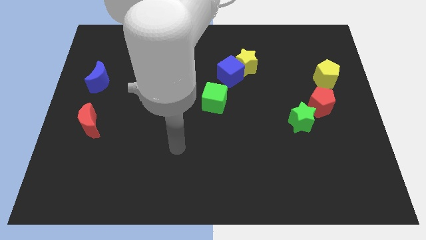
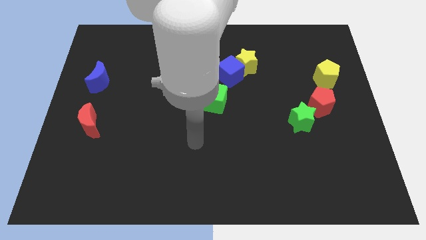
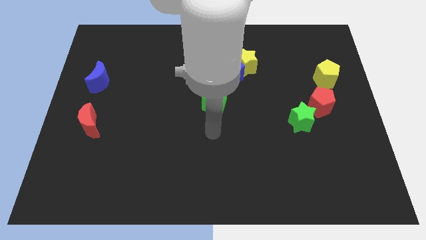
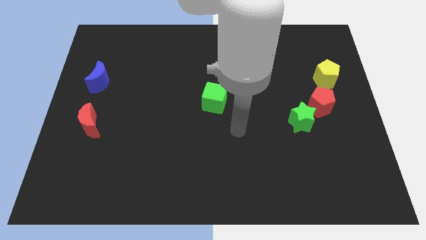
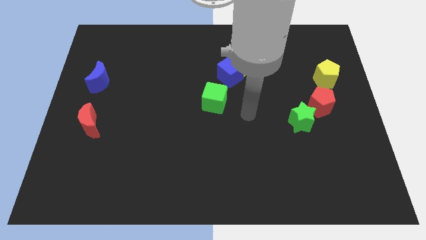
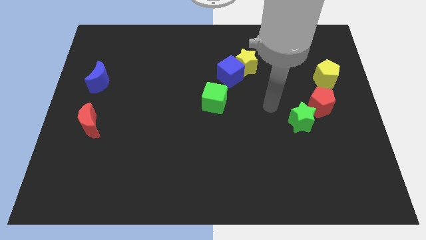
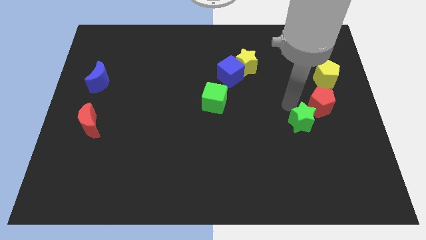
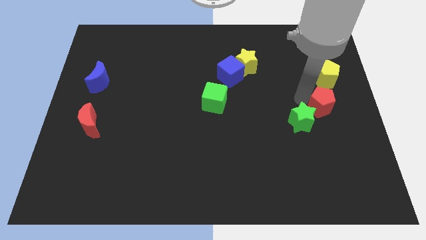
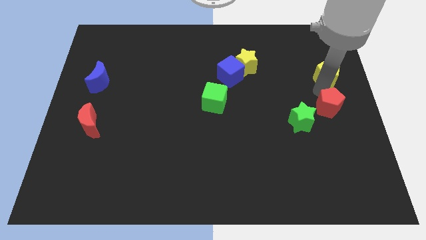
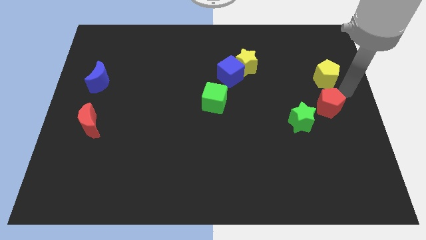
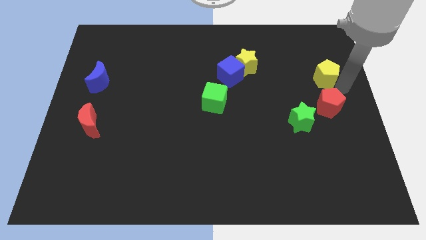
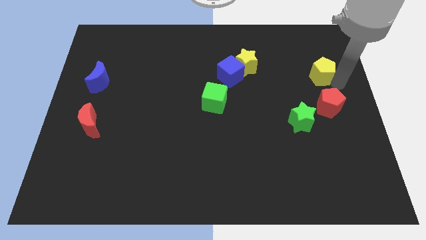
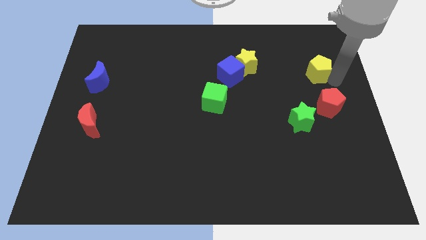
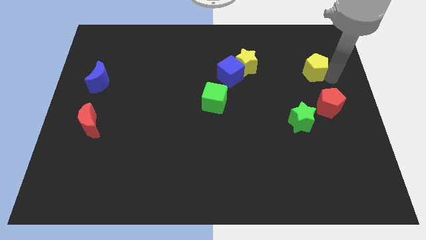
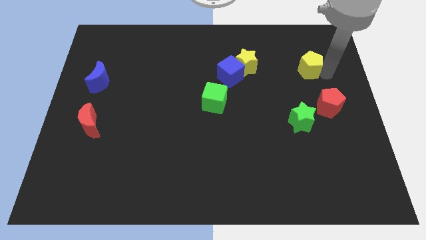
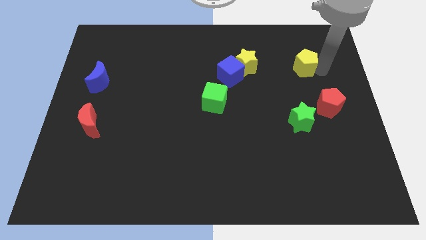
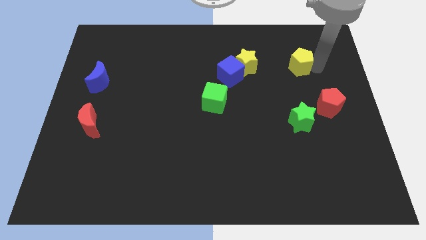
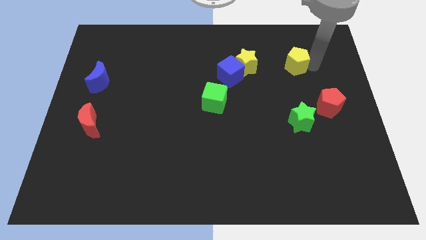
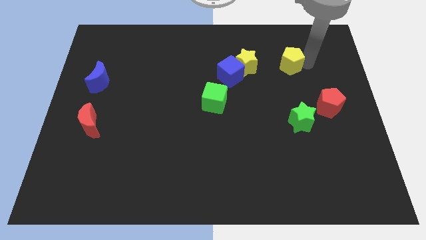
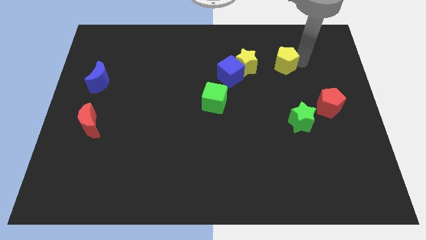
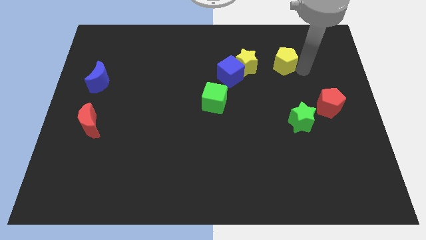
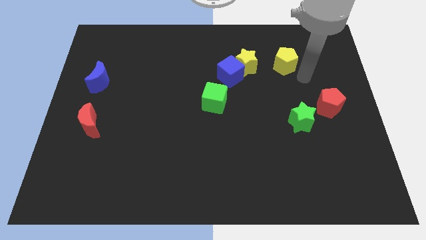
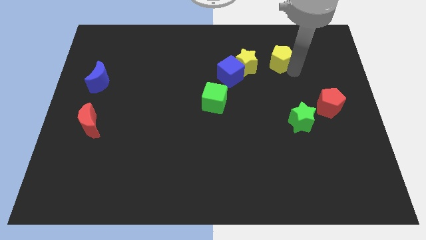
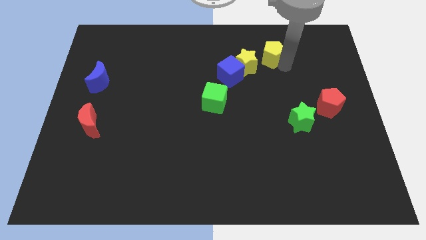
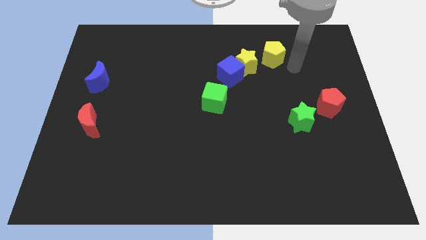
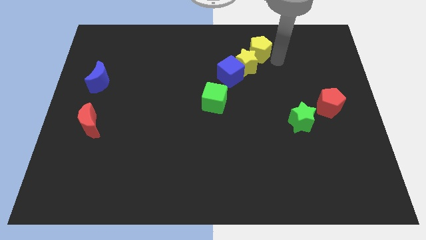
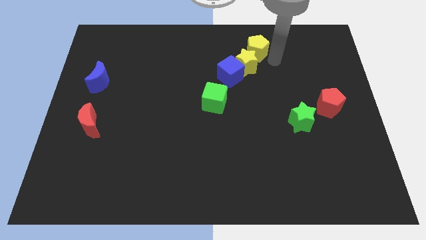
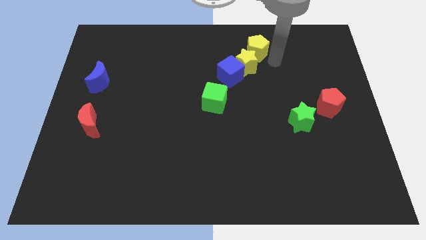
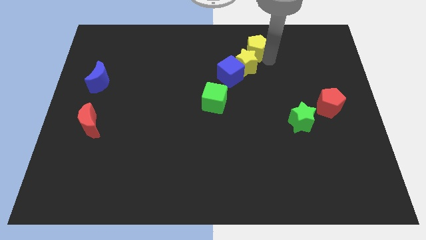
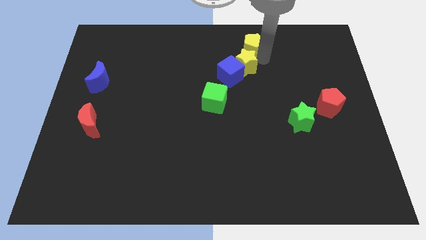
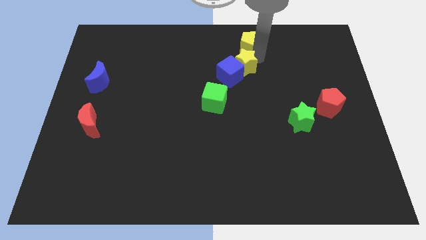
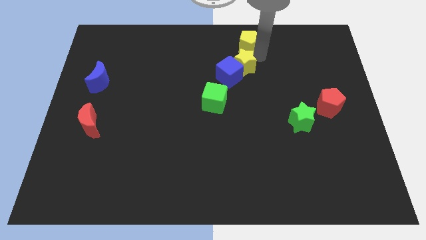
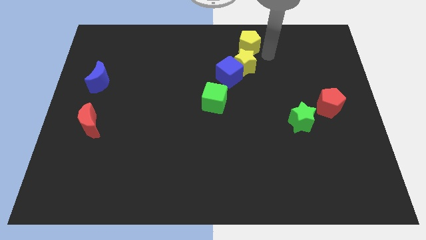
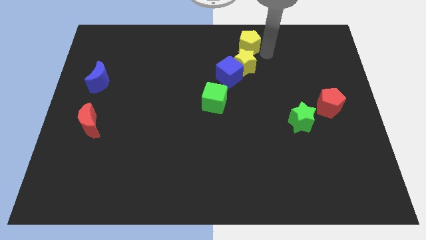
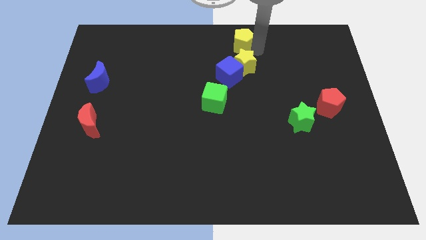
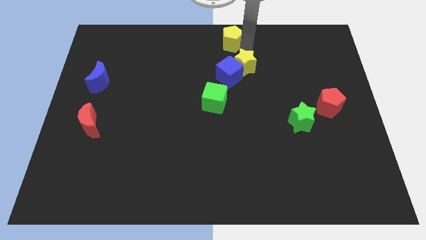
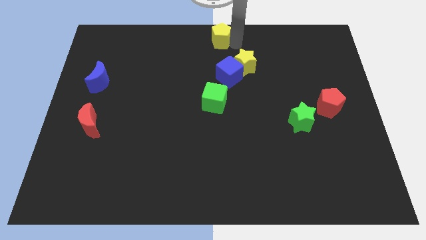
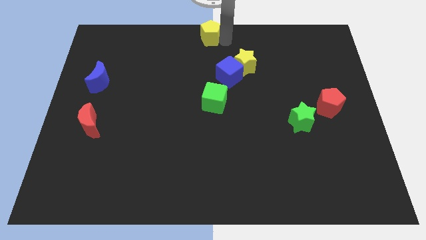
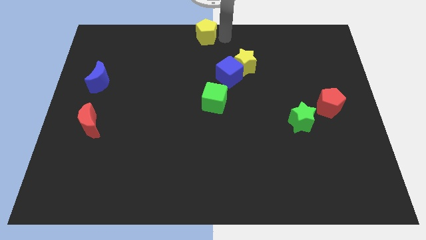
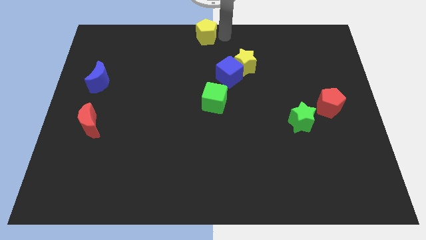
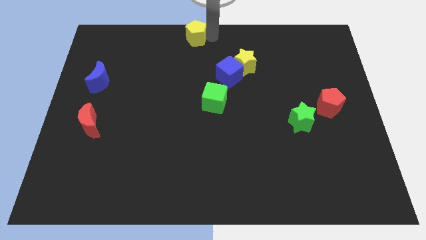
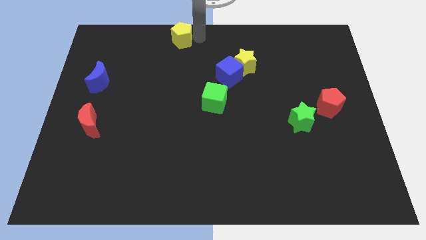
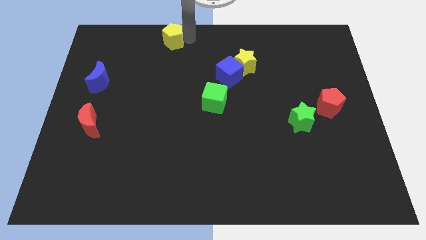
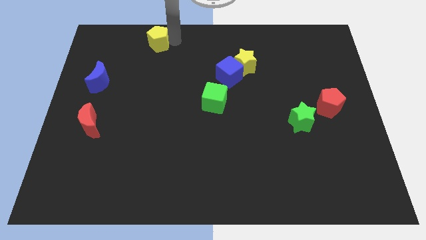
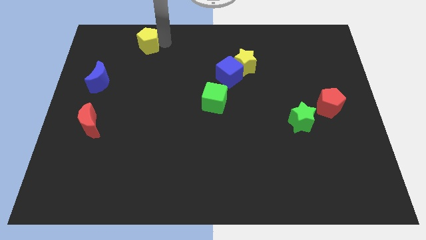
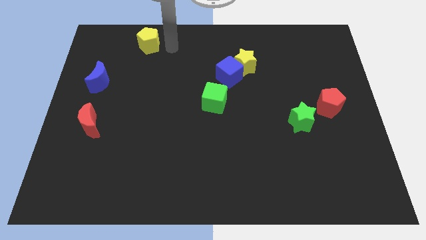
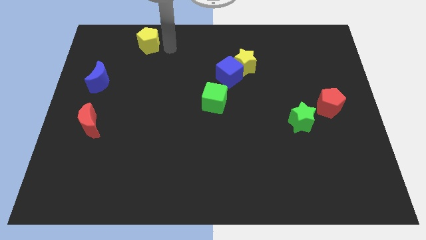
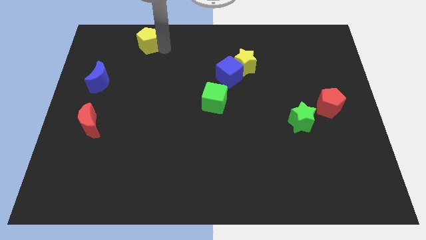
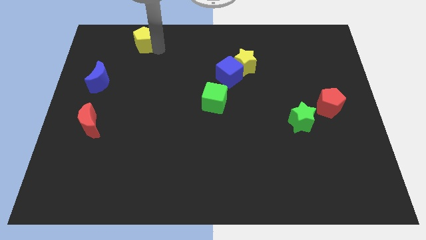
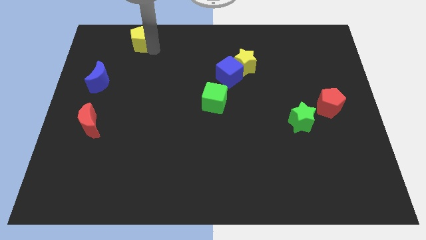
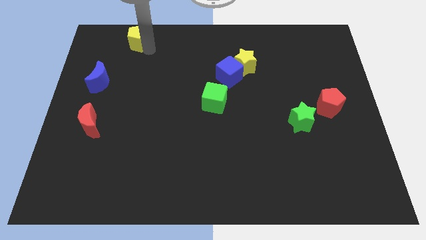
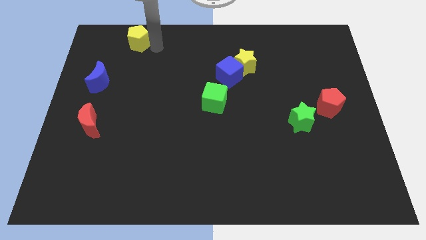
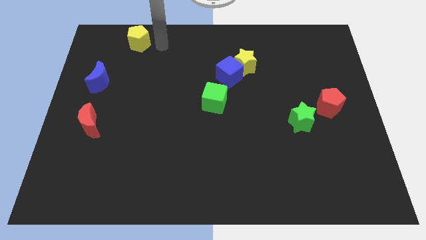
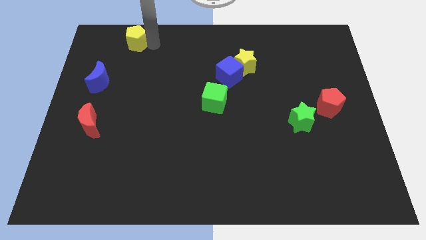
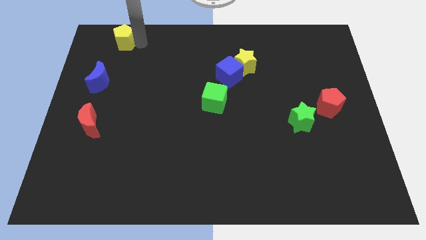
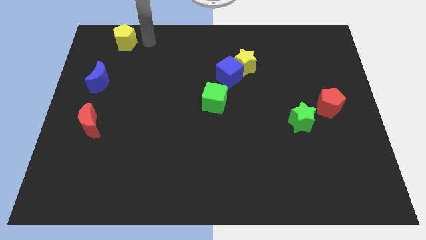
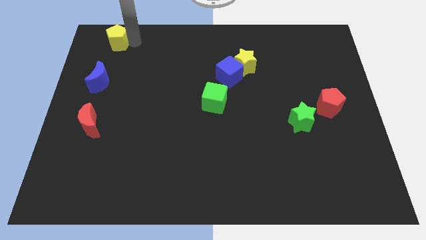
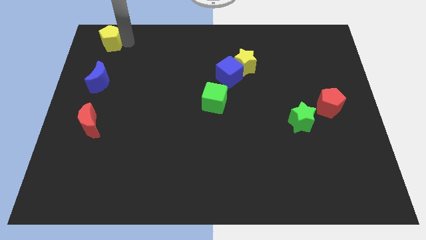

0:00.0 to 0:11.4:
slide the yellow pentagon to the top left
